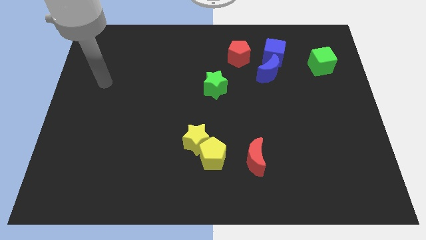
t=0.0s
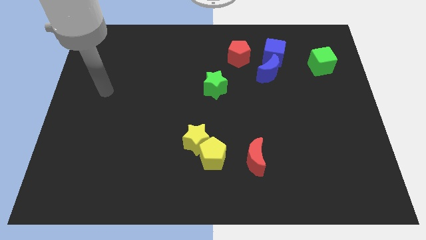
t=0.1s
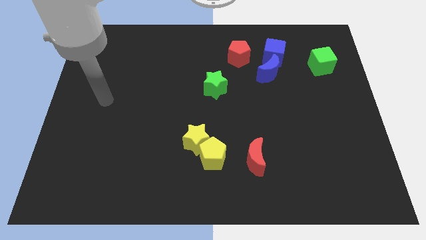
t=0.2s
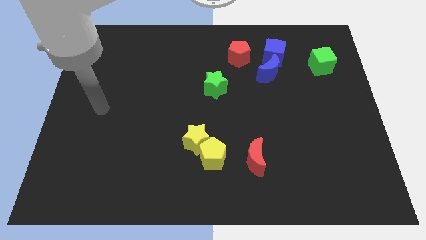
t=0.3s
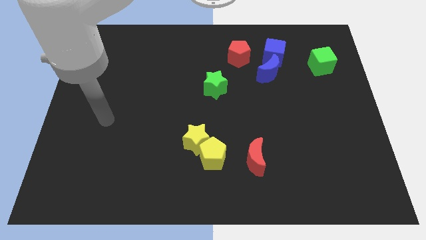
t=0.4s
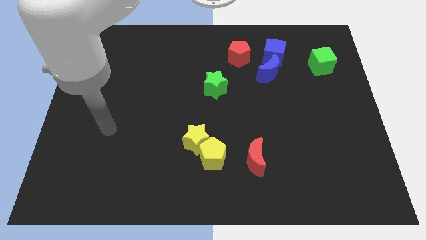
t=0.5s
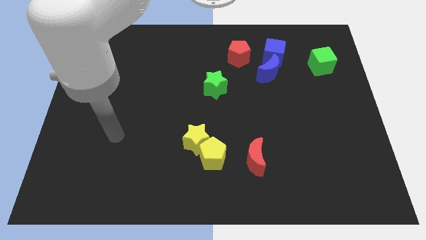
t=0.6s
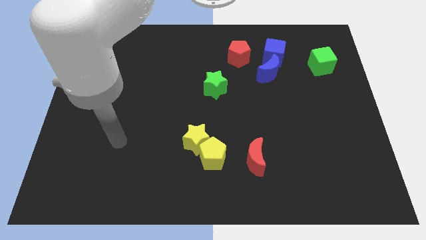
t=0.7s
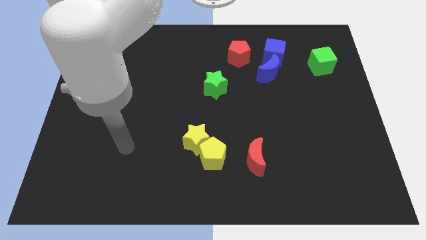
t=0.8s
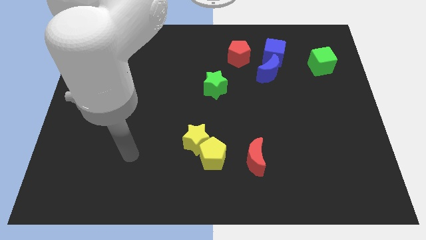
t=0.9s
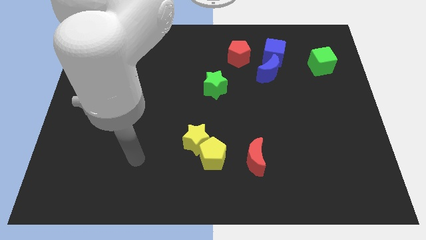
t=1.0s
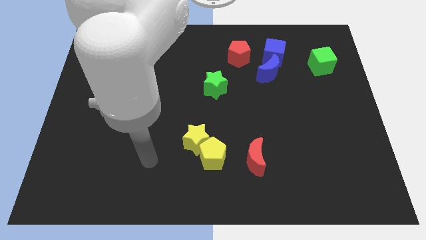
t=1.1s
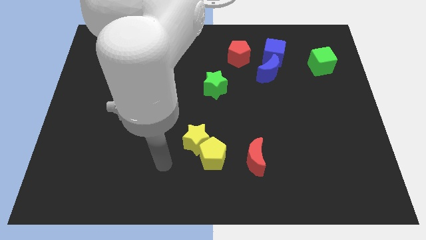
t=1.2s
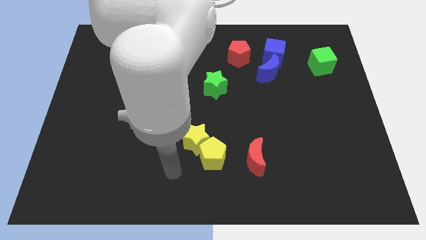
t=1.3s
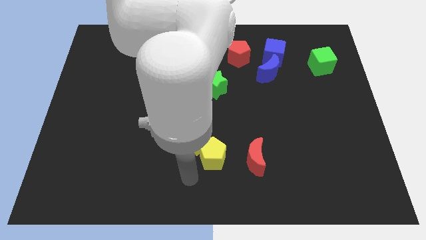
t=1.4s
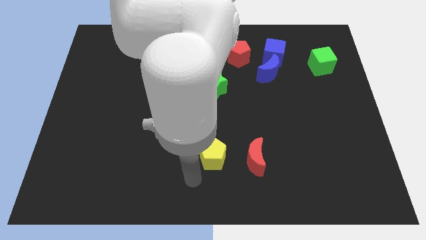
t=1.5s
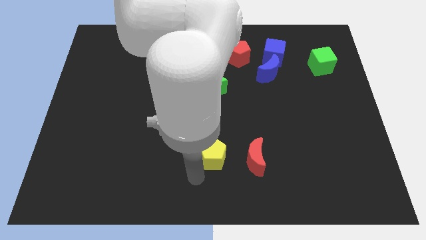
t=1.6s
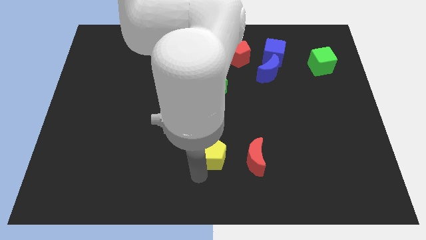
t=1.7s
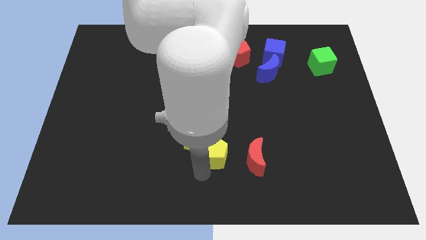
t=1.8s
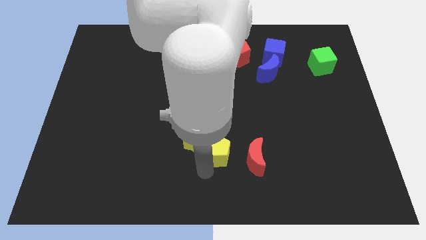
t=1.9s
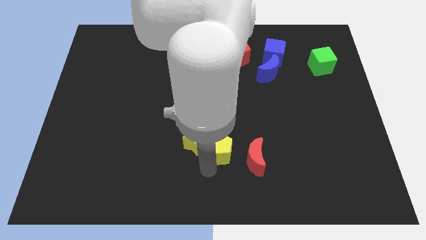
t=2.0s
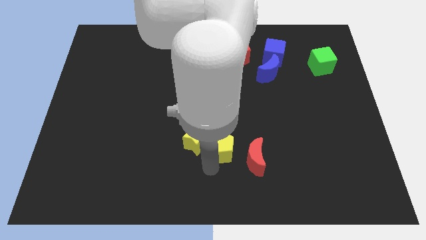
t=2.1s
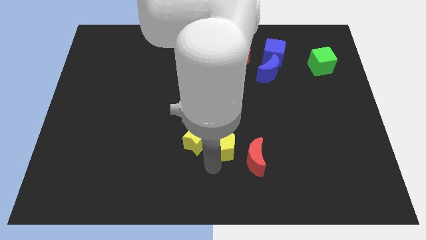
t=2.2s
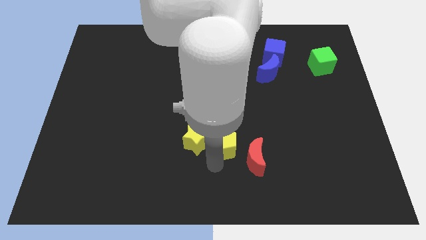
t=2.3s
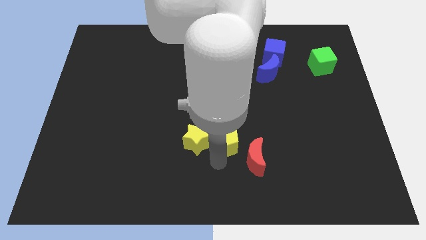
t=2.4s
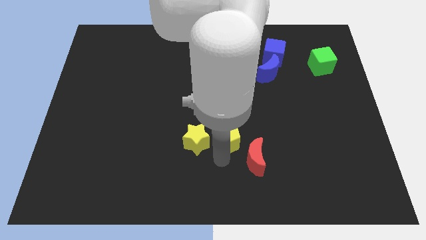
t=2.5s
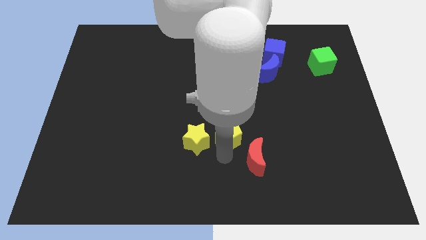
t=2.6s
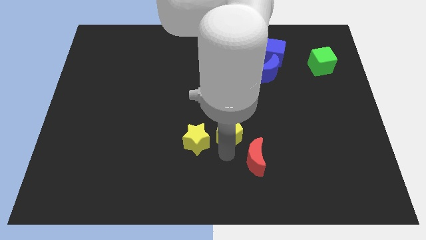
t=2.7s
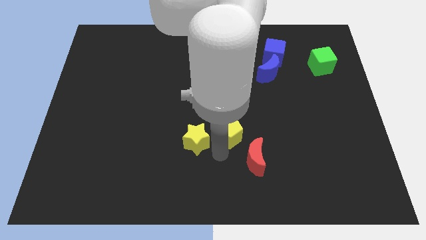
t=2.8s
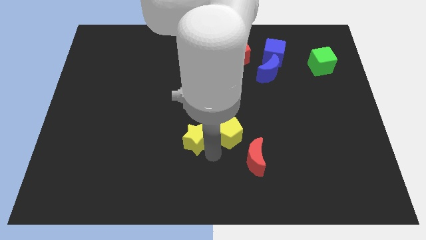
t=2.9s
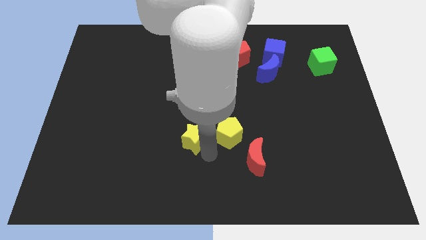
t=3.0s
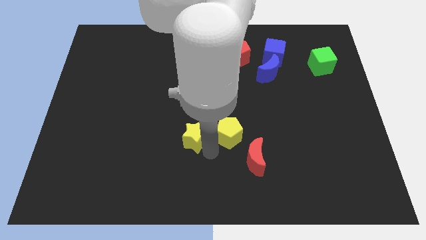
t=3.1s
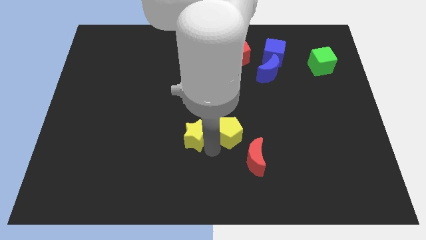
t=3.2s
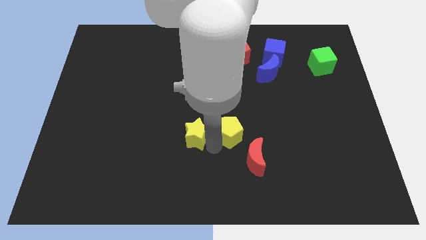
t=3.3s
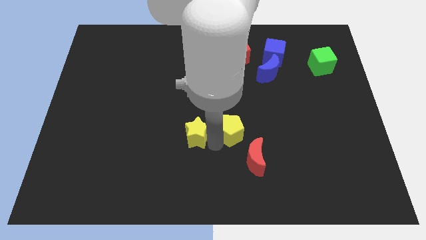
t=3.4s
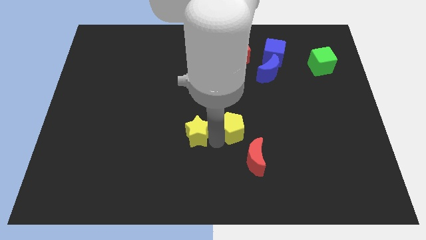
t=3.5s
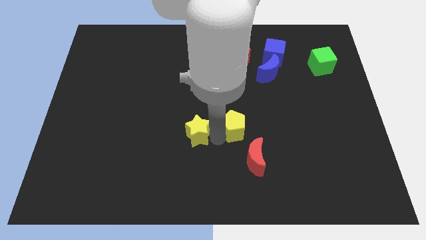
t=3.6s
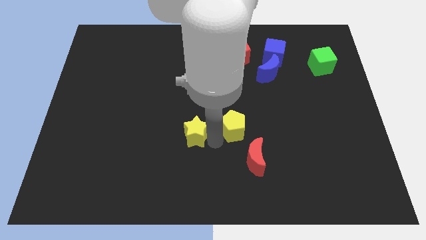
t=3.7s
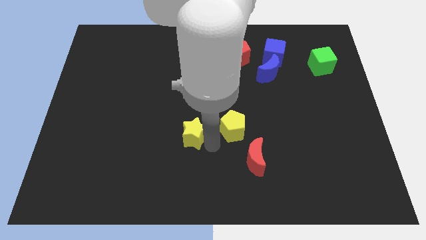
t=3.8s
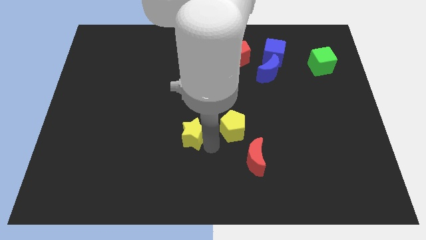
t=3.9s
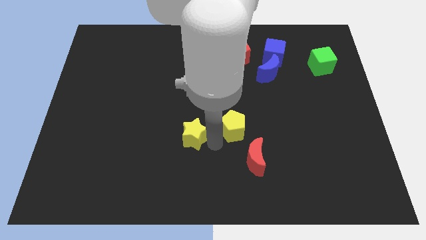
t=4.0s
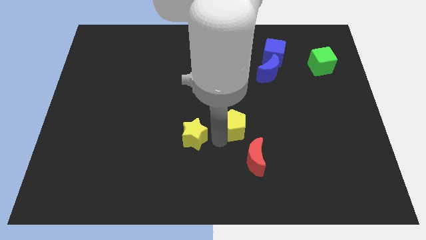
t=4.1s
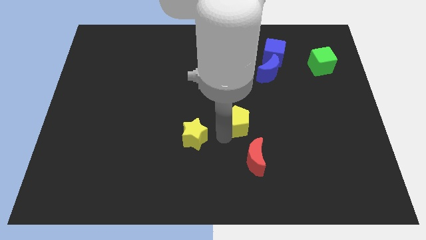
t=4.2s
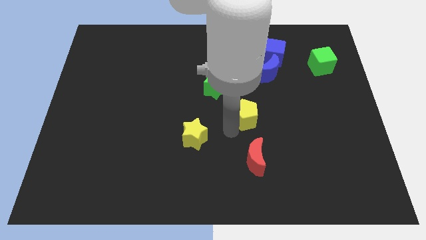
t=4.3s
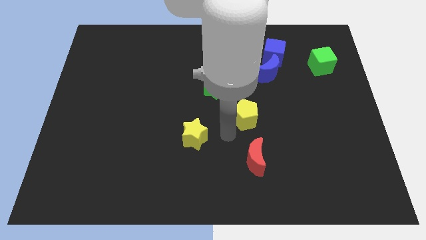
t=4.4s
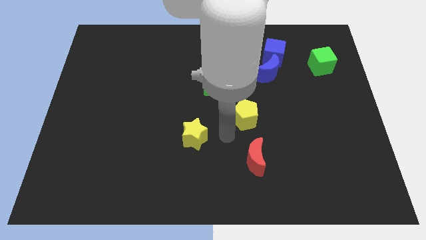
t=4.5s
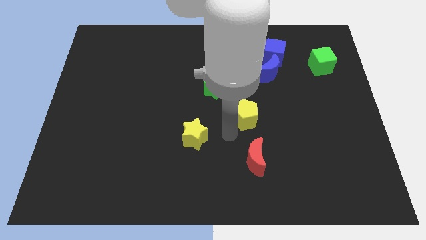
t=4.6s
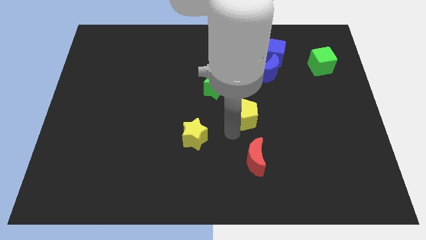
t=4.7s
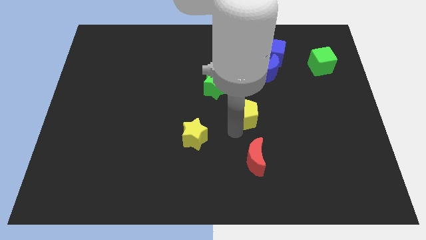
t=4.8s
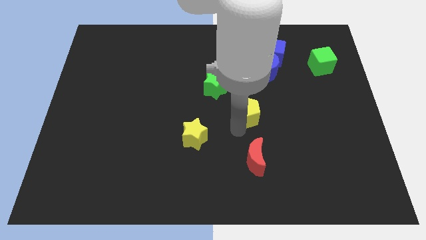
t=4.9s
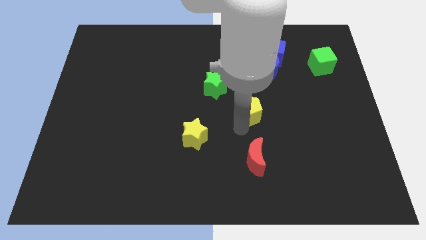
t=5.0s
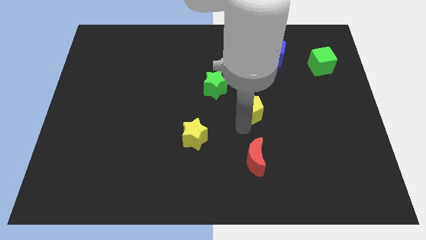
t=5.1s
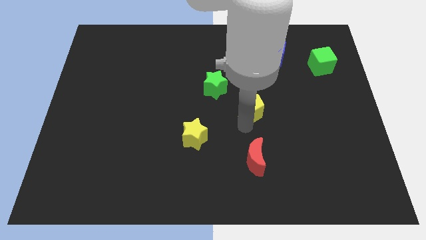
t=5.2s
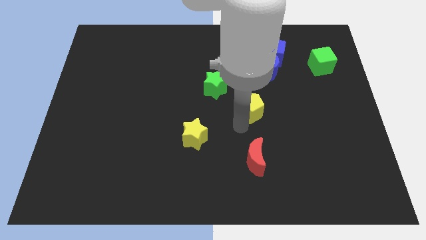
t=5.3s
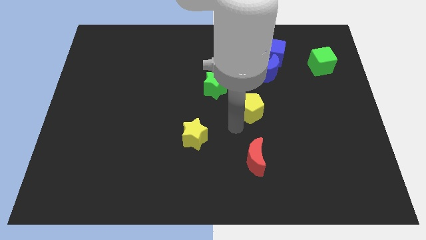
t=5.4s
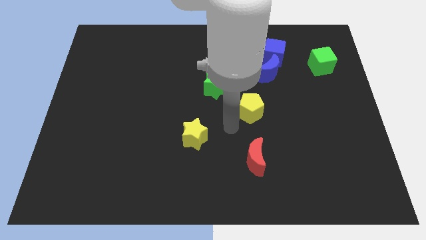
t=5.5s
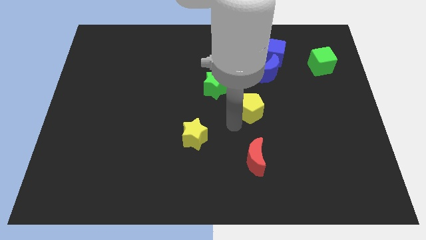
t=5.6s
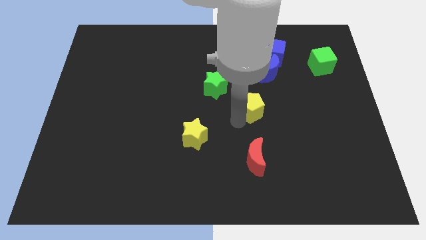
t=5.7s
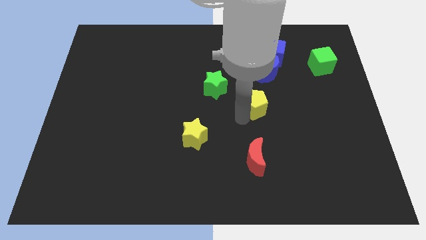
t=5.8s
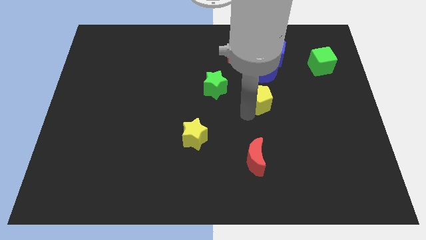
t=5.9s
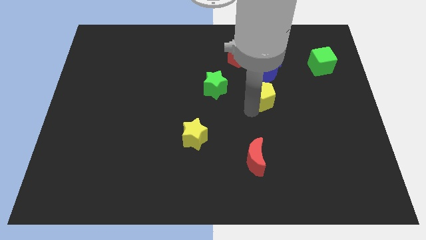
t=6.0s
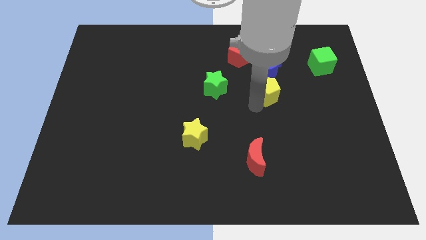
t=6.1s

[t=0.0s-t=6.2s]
slide the yellow pentagon to the bottom side of the blue cube
